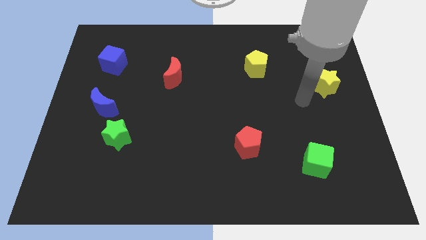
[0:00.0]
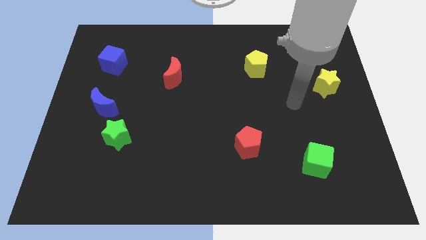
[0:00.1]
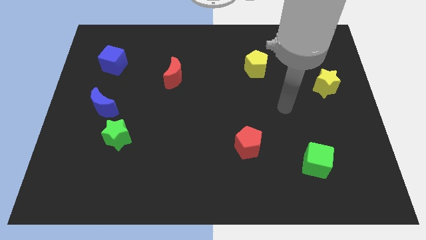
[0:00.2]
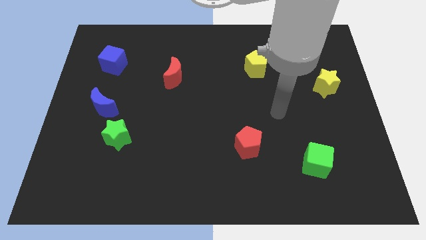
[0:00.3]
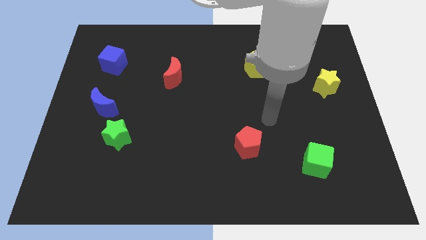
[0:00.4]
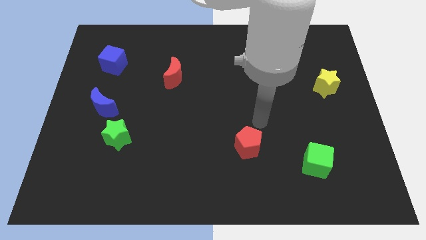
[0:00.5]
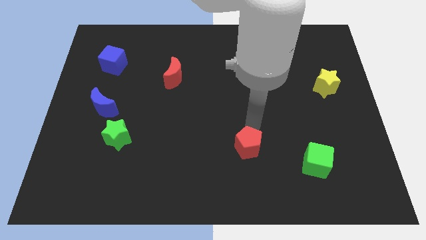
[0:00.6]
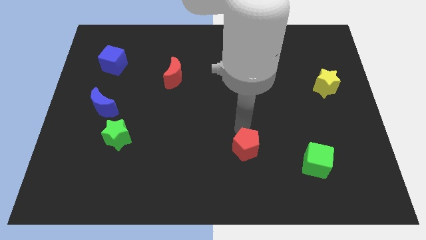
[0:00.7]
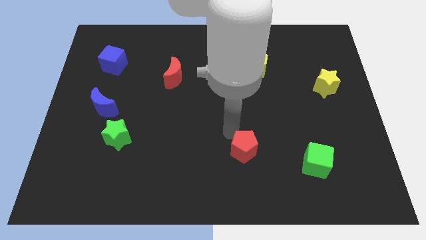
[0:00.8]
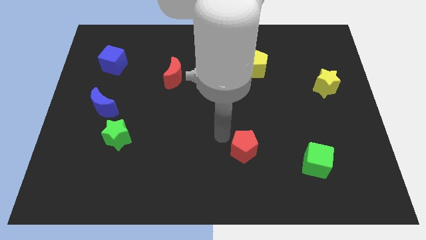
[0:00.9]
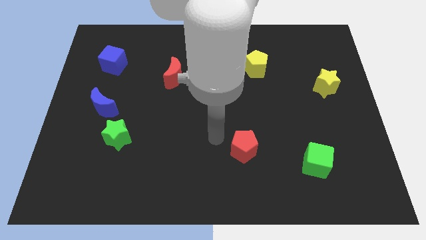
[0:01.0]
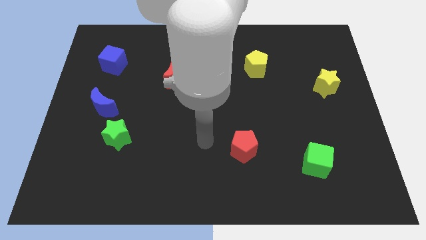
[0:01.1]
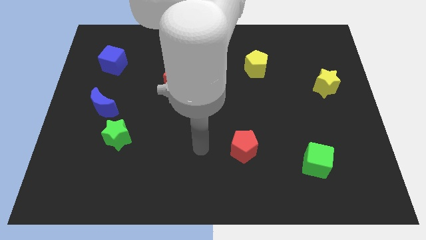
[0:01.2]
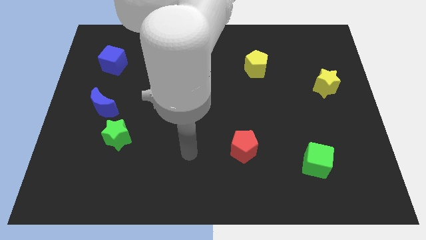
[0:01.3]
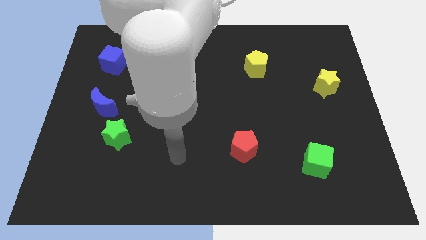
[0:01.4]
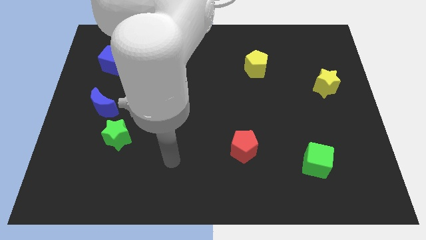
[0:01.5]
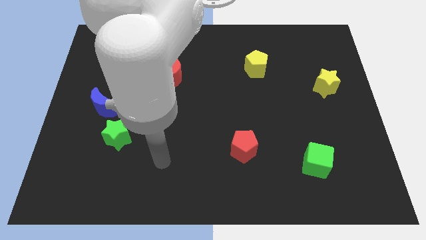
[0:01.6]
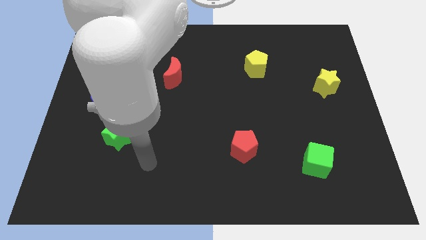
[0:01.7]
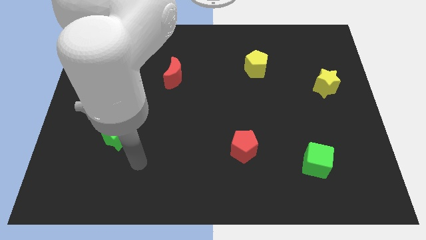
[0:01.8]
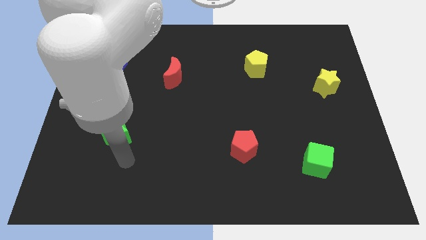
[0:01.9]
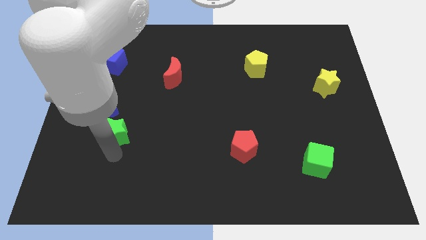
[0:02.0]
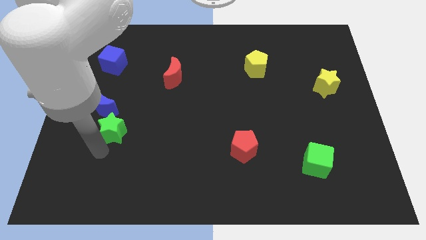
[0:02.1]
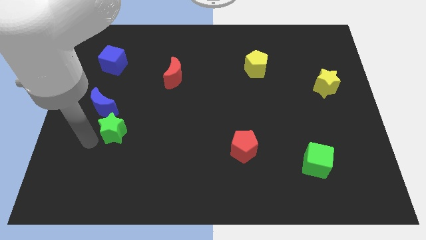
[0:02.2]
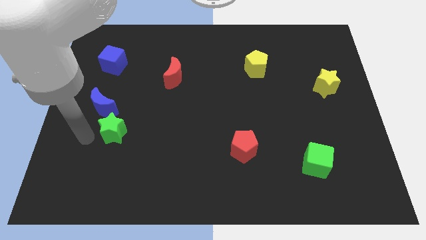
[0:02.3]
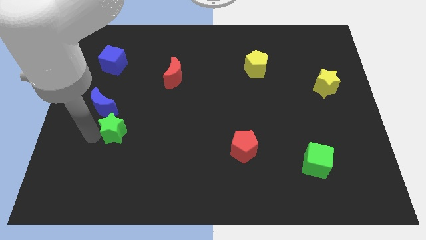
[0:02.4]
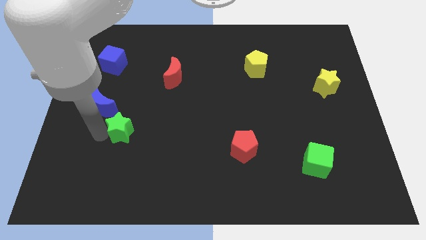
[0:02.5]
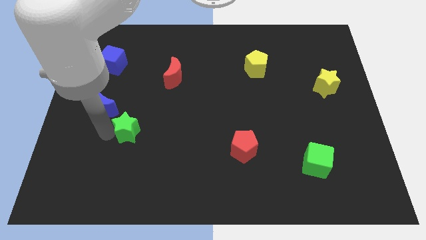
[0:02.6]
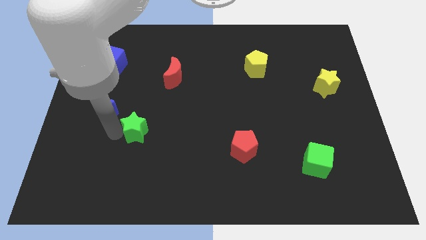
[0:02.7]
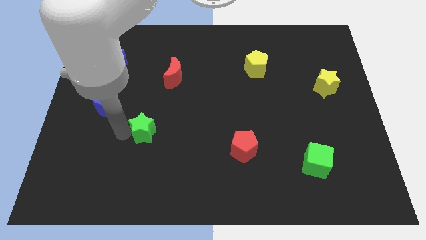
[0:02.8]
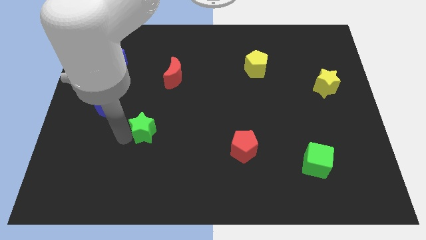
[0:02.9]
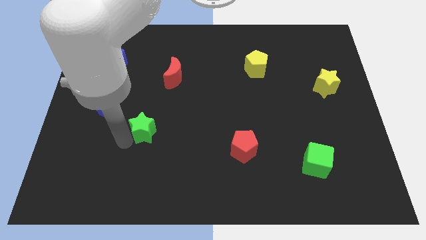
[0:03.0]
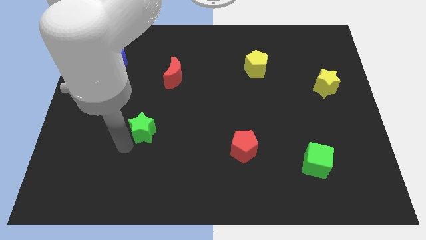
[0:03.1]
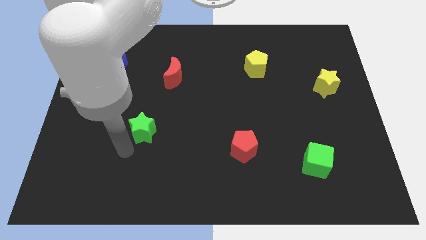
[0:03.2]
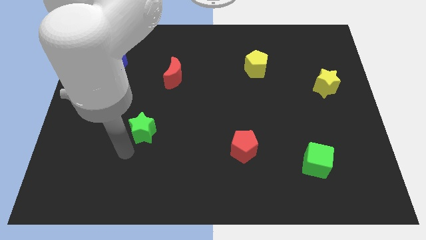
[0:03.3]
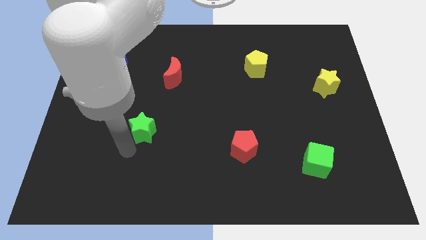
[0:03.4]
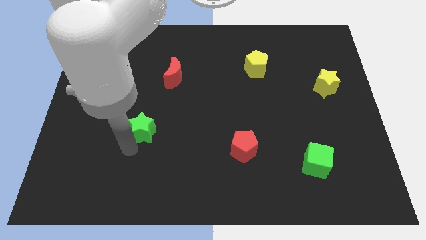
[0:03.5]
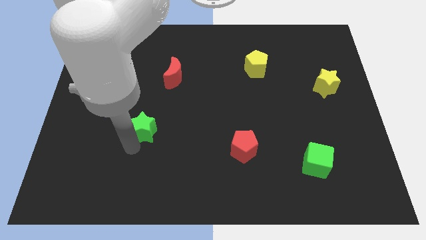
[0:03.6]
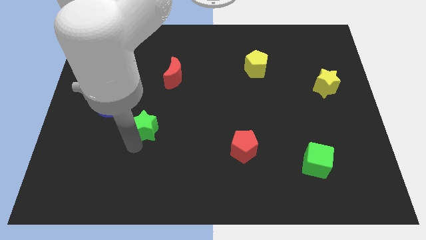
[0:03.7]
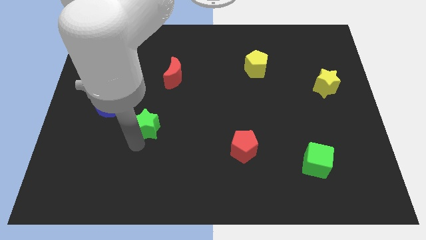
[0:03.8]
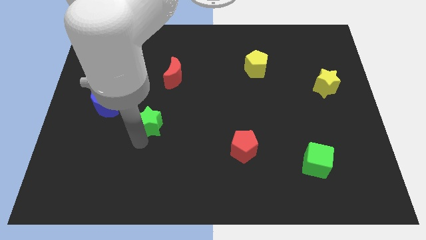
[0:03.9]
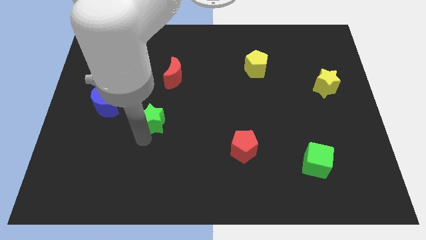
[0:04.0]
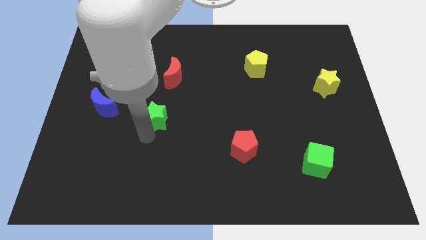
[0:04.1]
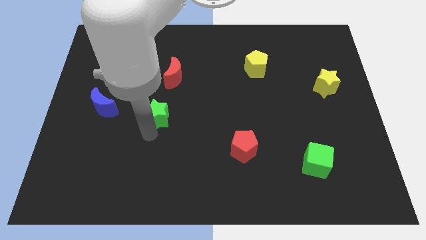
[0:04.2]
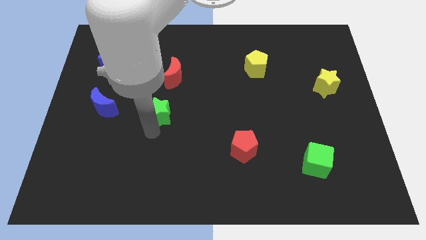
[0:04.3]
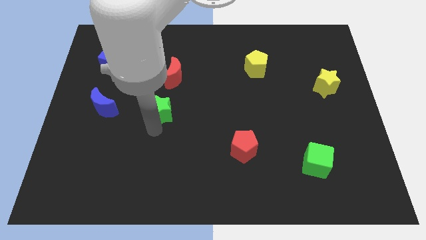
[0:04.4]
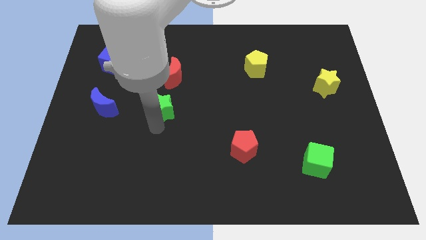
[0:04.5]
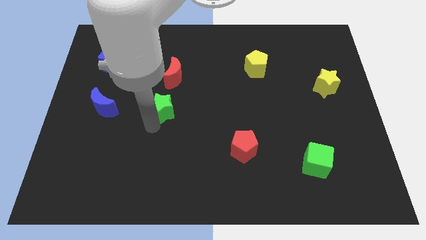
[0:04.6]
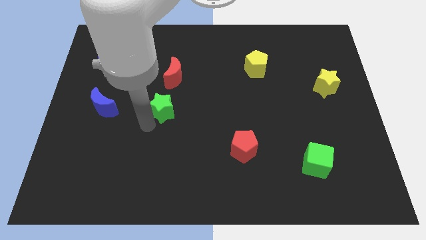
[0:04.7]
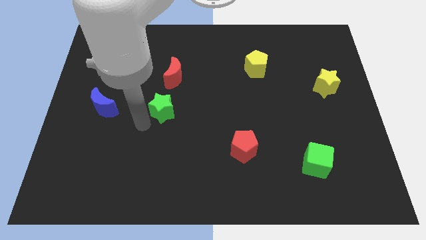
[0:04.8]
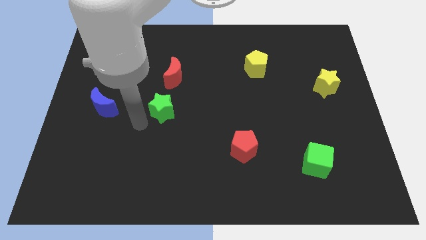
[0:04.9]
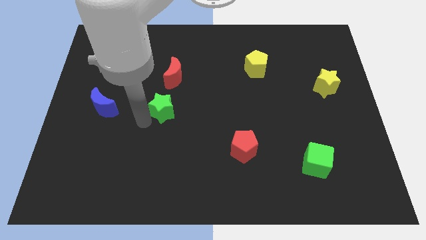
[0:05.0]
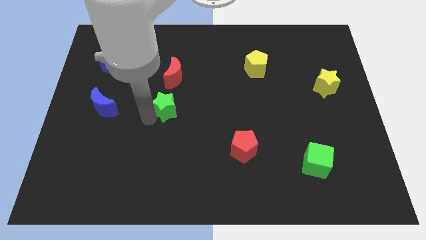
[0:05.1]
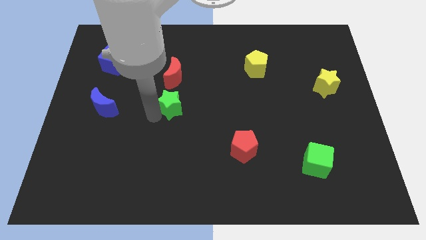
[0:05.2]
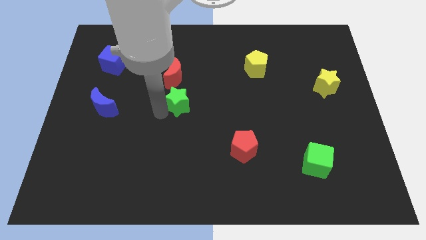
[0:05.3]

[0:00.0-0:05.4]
move the green star to the bottom right side of the red moon

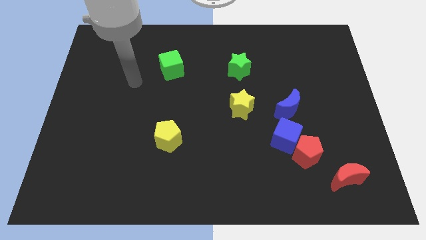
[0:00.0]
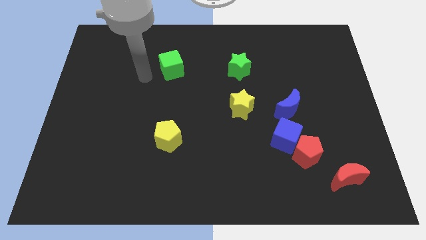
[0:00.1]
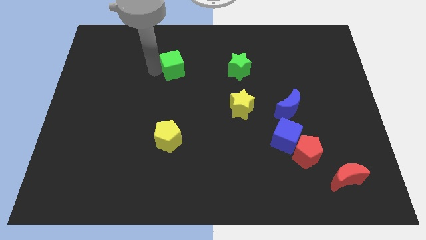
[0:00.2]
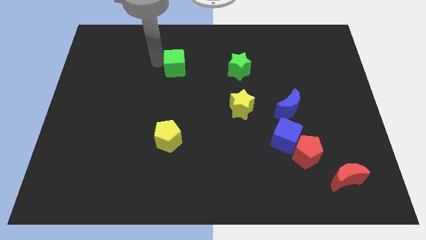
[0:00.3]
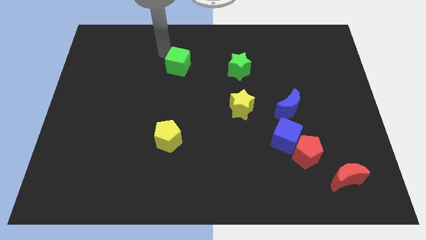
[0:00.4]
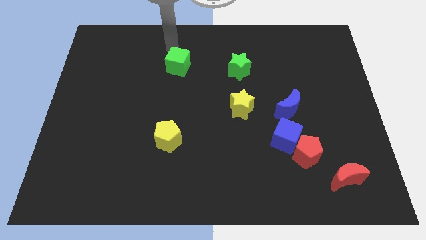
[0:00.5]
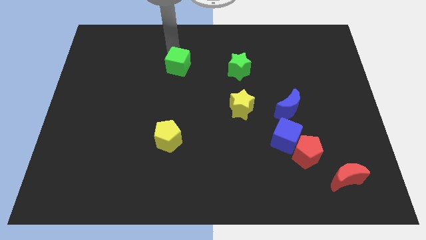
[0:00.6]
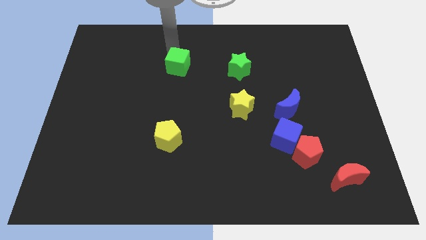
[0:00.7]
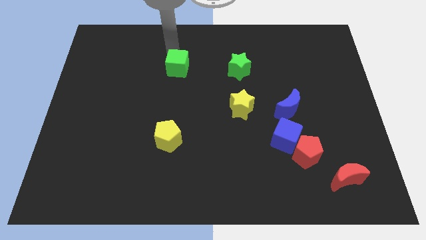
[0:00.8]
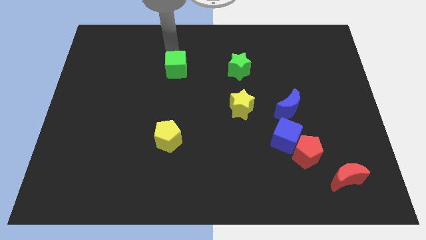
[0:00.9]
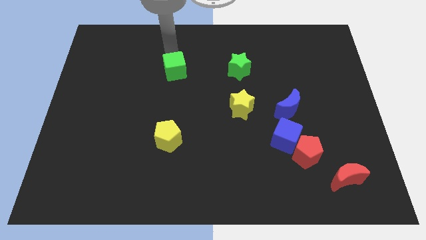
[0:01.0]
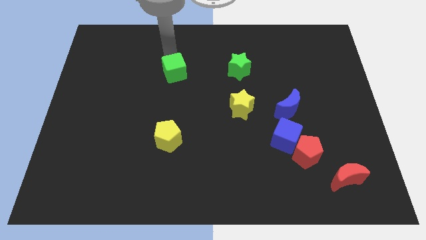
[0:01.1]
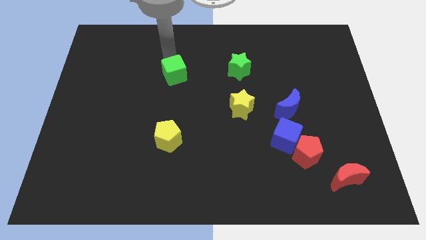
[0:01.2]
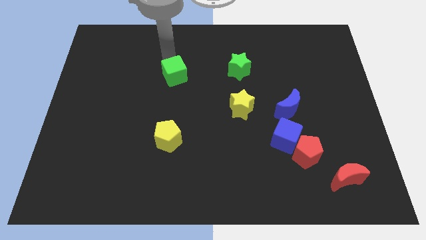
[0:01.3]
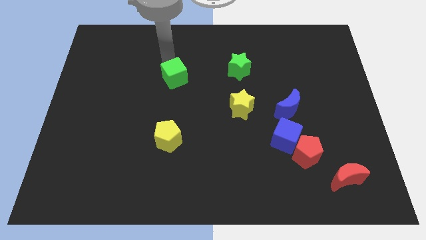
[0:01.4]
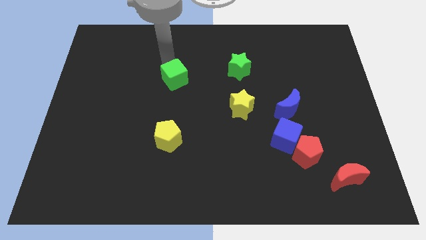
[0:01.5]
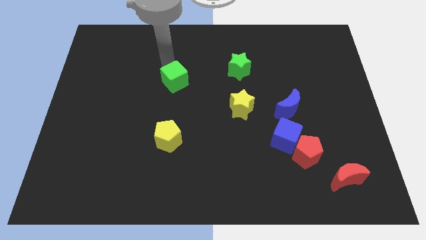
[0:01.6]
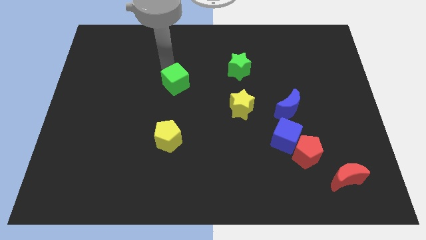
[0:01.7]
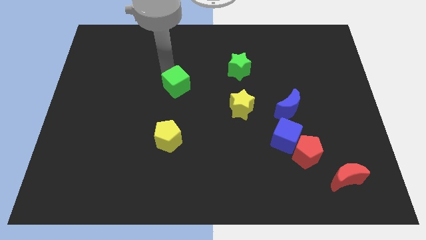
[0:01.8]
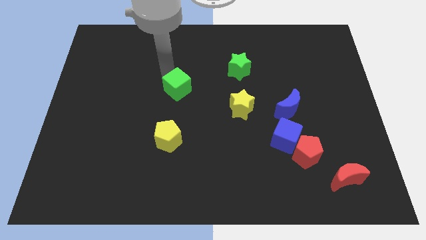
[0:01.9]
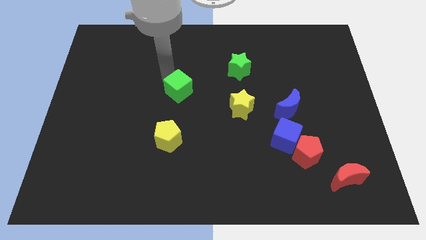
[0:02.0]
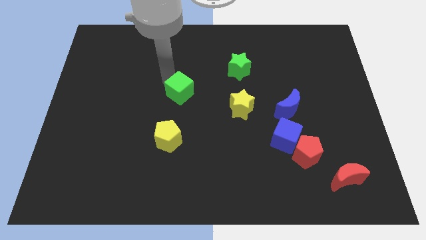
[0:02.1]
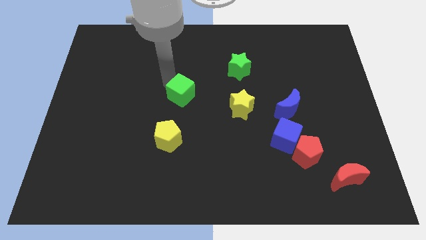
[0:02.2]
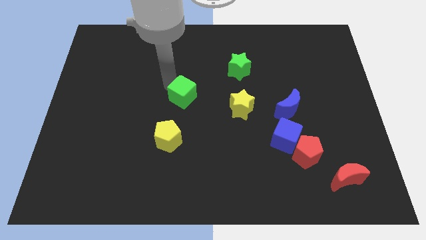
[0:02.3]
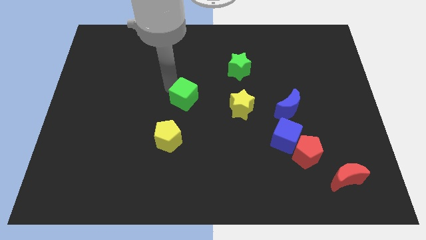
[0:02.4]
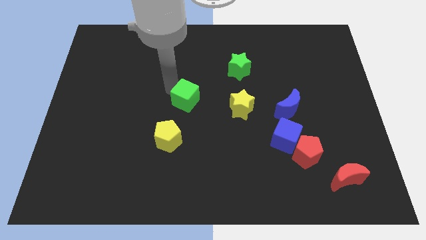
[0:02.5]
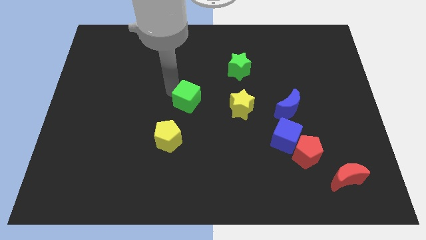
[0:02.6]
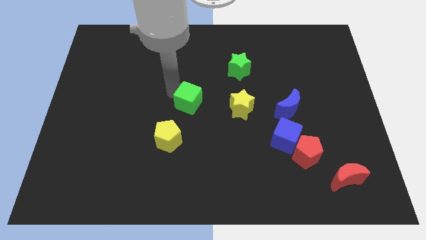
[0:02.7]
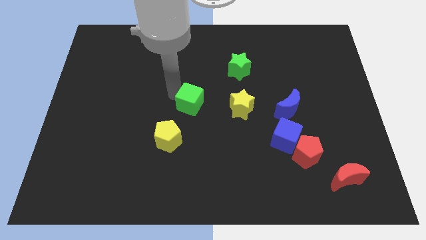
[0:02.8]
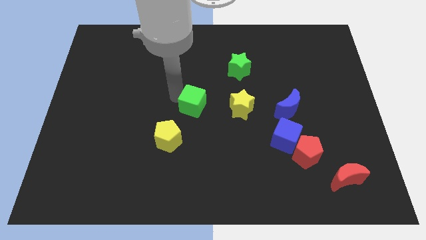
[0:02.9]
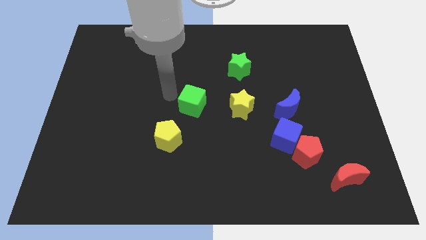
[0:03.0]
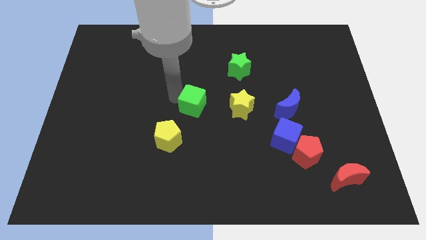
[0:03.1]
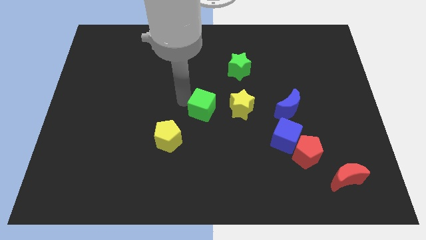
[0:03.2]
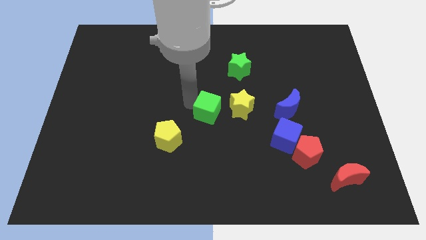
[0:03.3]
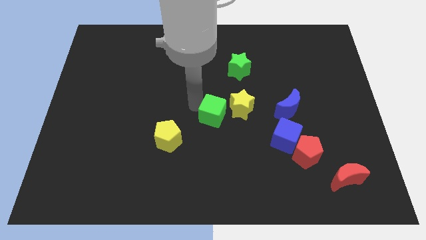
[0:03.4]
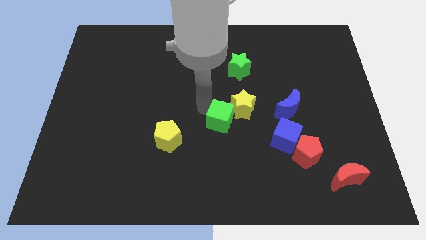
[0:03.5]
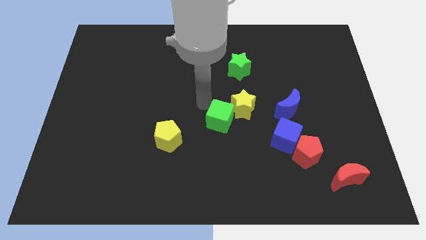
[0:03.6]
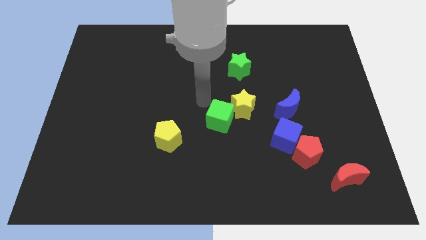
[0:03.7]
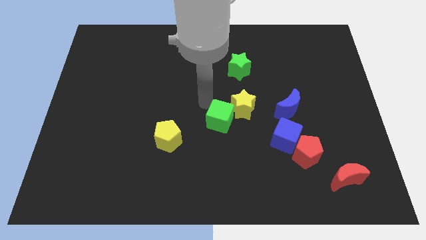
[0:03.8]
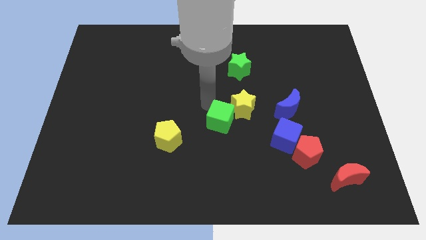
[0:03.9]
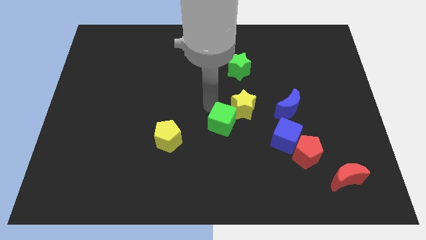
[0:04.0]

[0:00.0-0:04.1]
push the green cube just left of the blue cube
